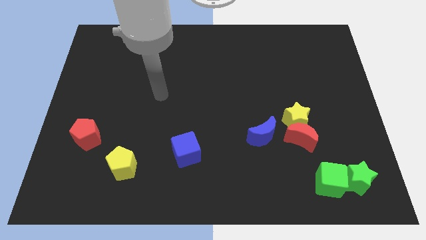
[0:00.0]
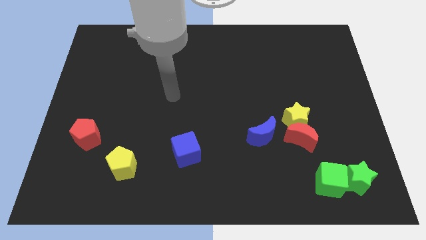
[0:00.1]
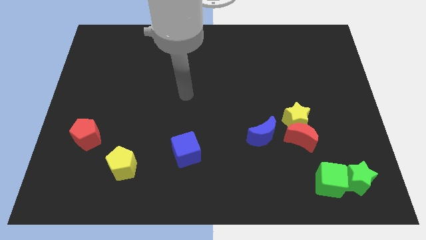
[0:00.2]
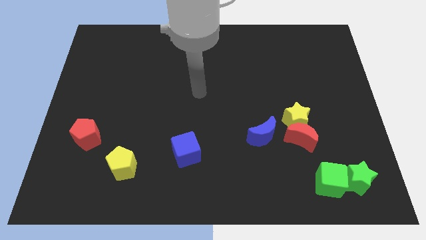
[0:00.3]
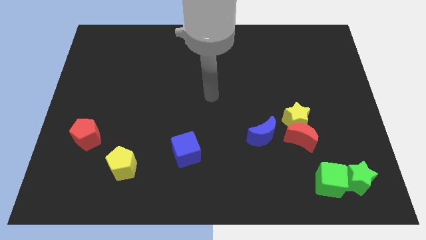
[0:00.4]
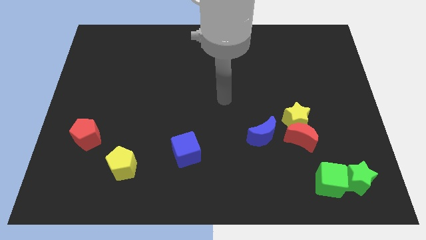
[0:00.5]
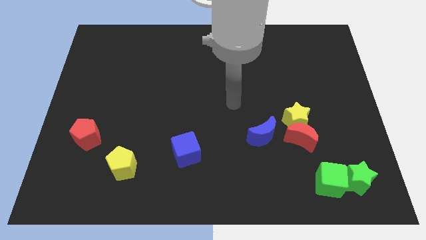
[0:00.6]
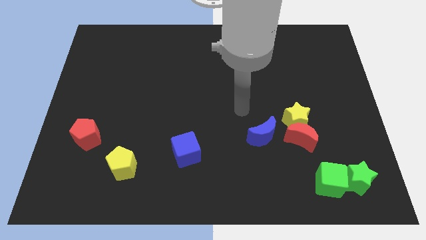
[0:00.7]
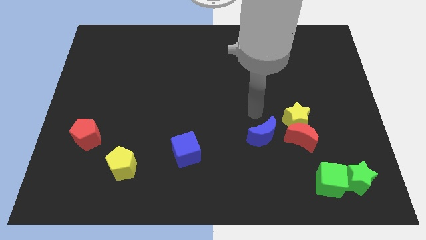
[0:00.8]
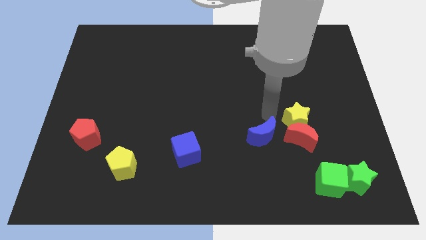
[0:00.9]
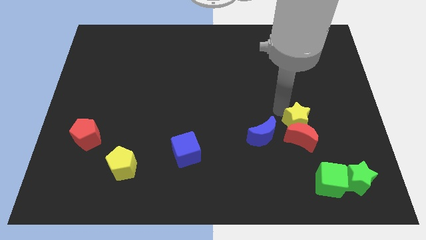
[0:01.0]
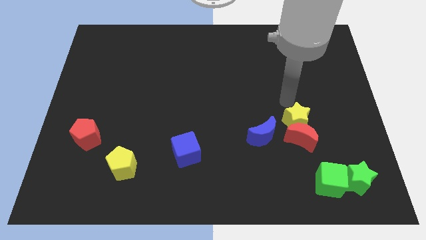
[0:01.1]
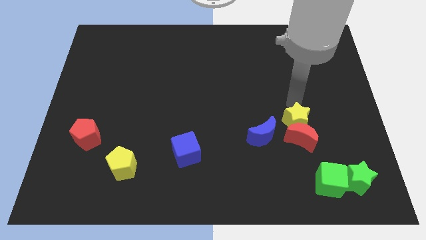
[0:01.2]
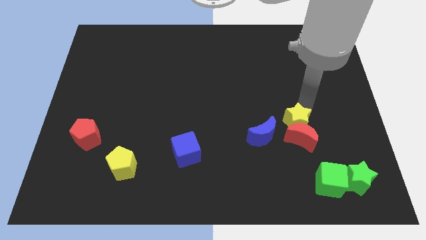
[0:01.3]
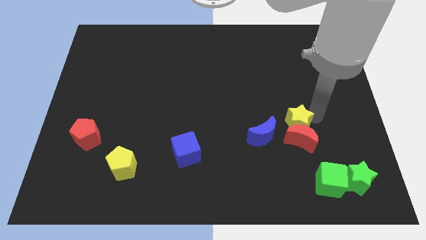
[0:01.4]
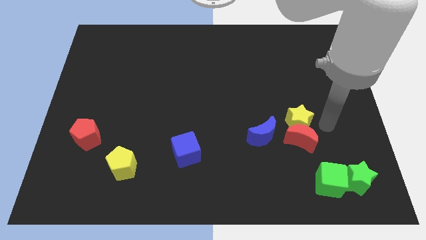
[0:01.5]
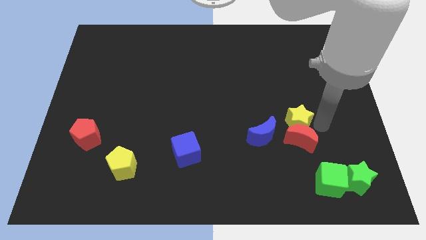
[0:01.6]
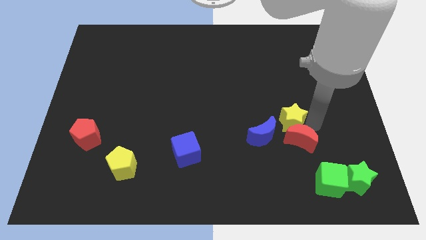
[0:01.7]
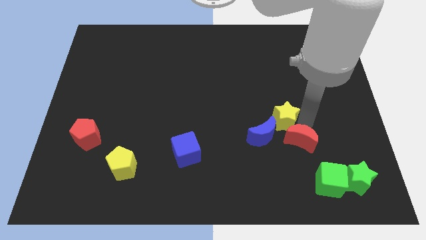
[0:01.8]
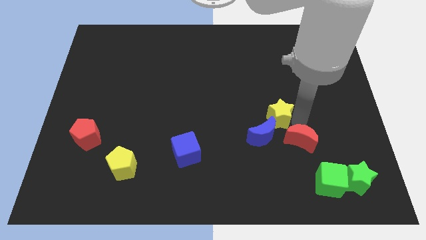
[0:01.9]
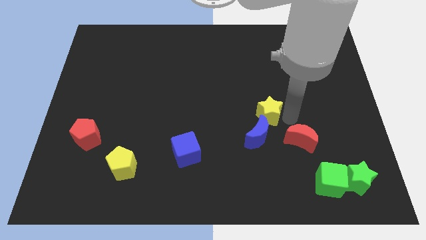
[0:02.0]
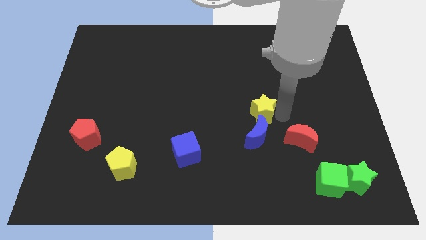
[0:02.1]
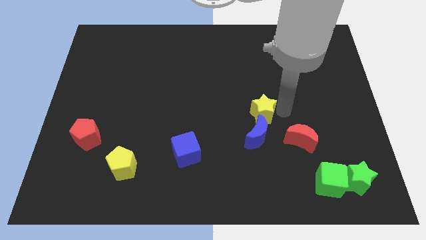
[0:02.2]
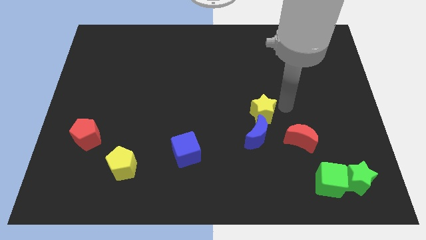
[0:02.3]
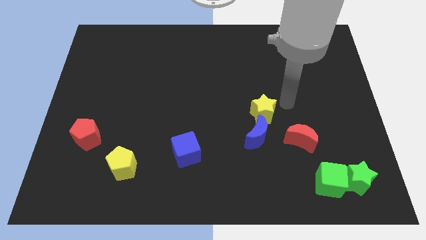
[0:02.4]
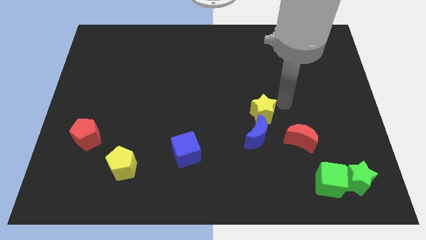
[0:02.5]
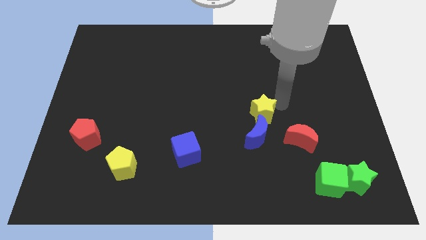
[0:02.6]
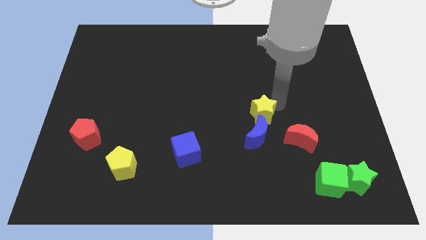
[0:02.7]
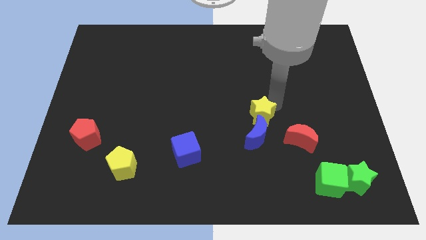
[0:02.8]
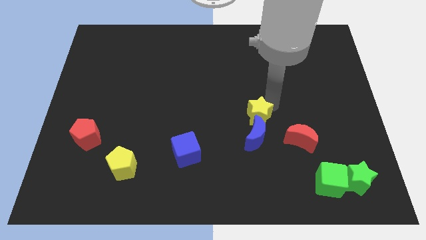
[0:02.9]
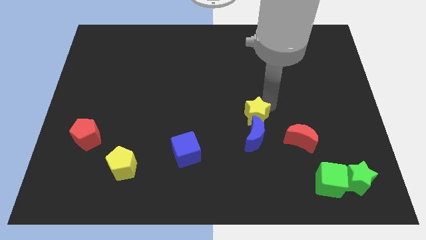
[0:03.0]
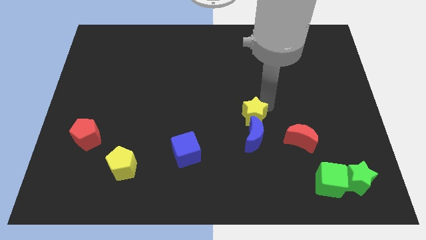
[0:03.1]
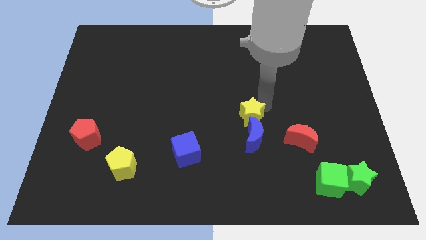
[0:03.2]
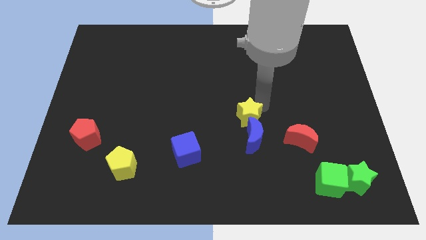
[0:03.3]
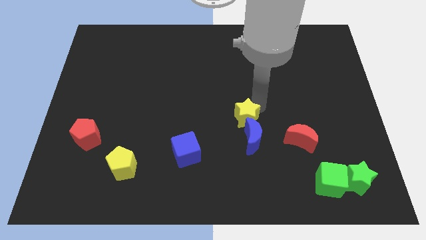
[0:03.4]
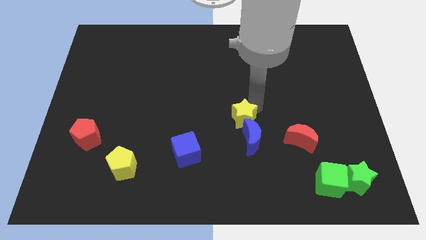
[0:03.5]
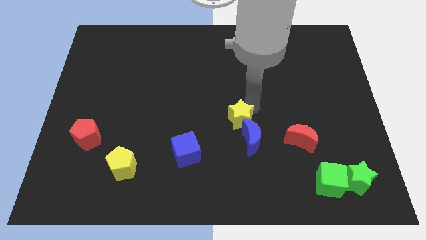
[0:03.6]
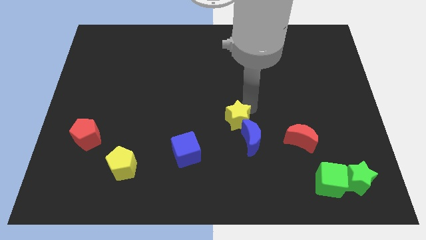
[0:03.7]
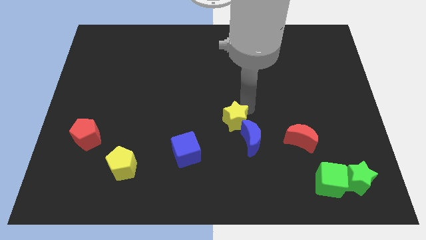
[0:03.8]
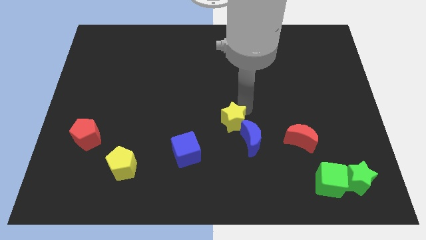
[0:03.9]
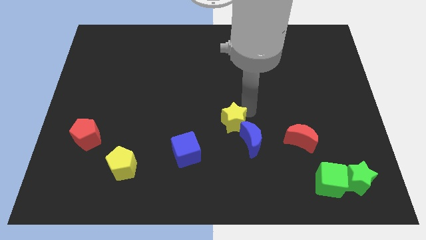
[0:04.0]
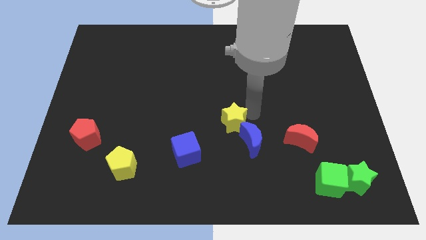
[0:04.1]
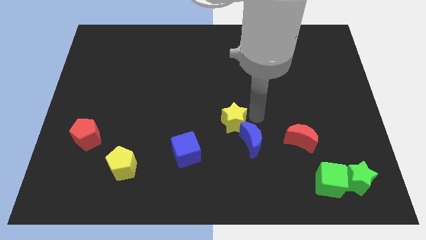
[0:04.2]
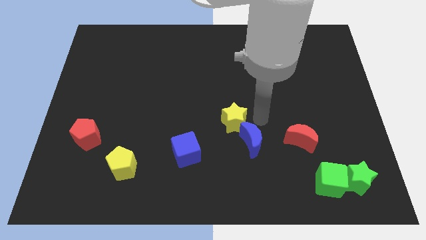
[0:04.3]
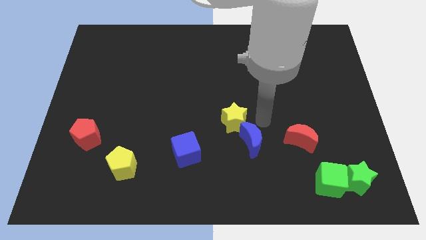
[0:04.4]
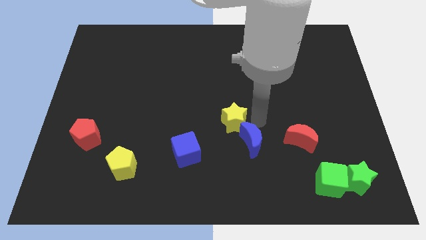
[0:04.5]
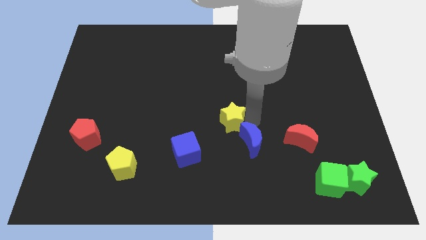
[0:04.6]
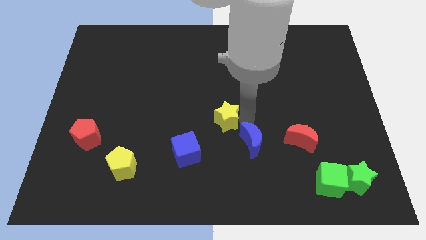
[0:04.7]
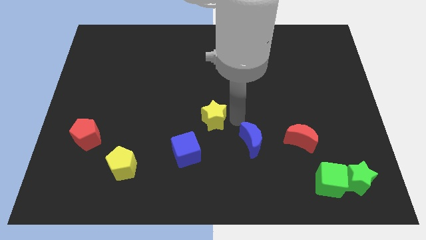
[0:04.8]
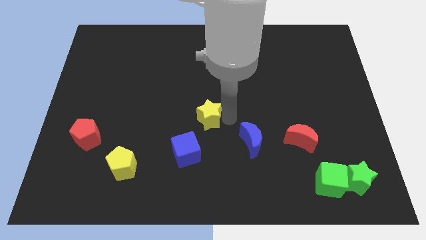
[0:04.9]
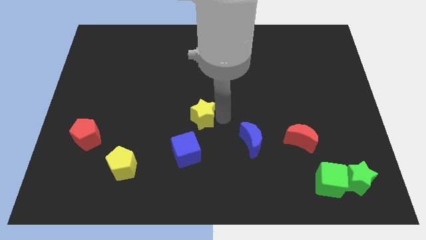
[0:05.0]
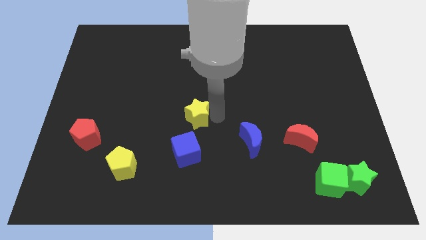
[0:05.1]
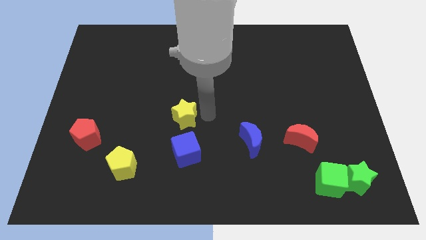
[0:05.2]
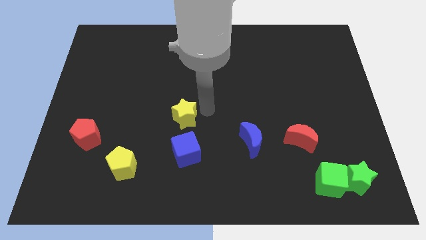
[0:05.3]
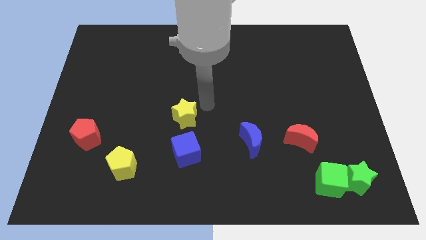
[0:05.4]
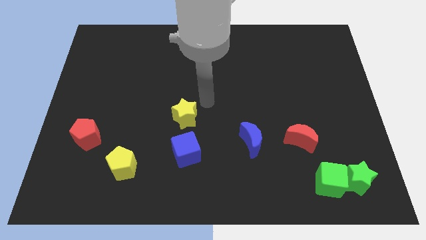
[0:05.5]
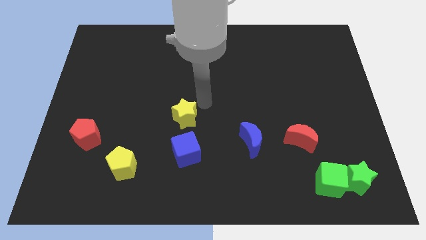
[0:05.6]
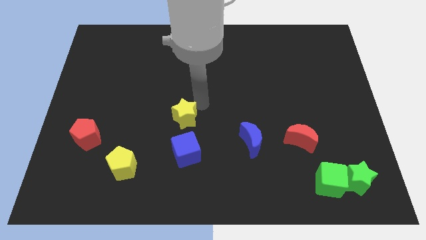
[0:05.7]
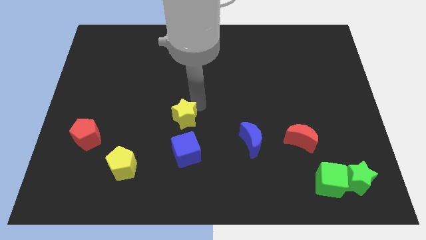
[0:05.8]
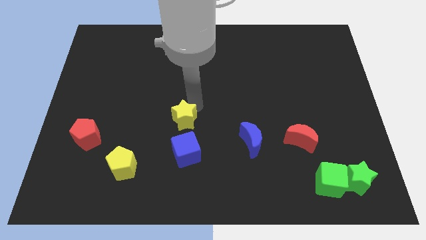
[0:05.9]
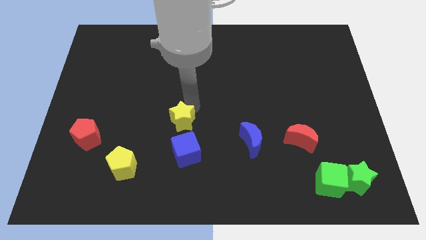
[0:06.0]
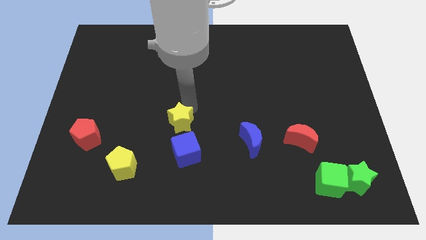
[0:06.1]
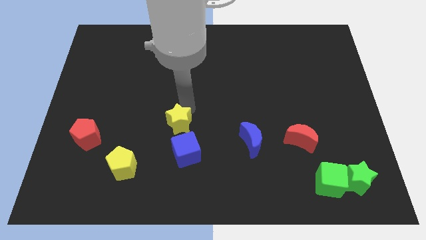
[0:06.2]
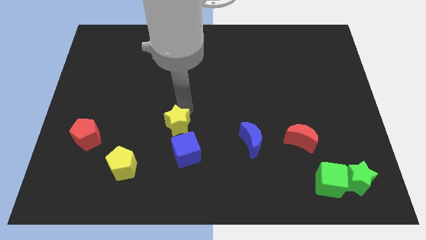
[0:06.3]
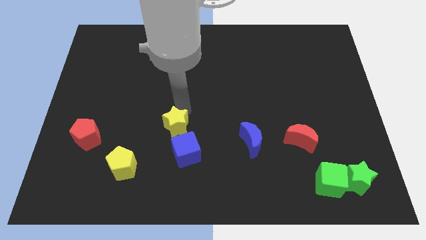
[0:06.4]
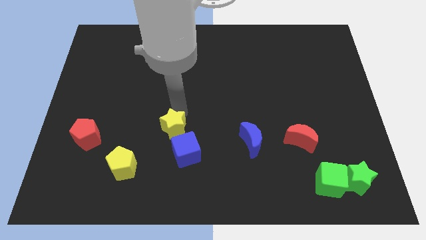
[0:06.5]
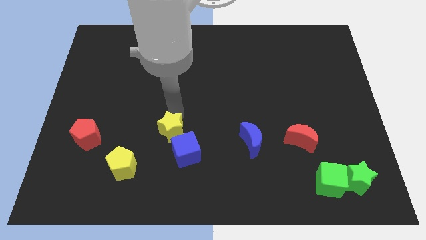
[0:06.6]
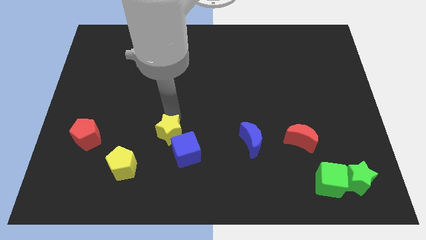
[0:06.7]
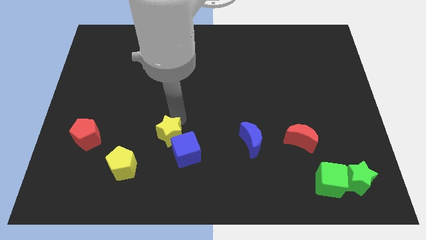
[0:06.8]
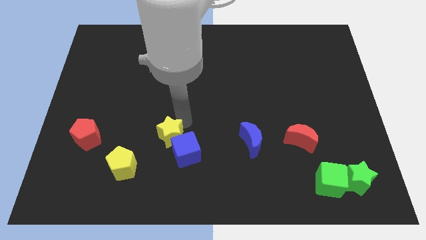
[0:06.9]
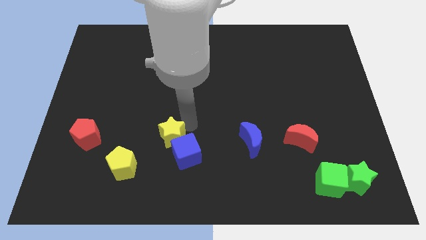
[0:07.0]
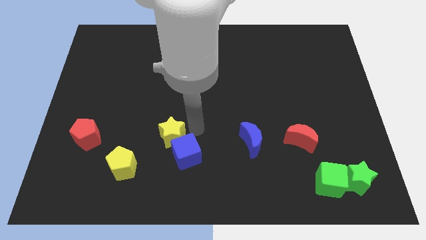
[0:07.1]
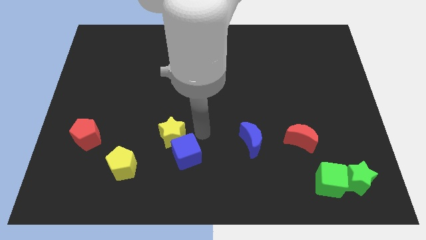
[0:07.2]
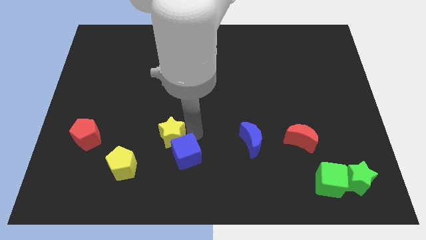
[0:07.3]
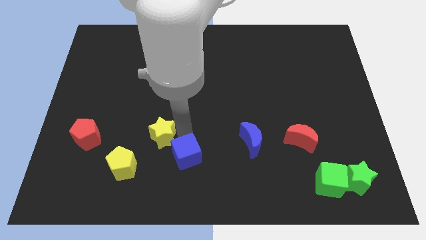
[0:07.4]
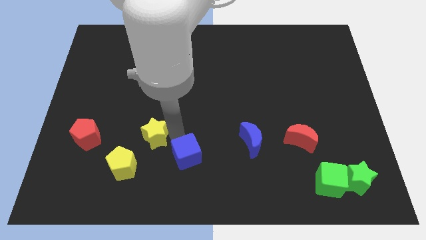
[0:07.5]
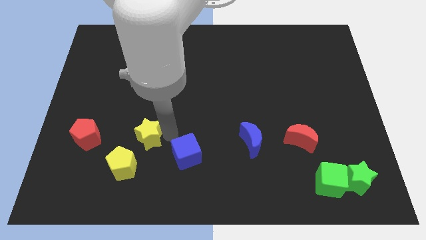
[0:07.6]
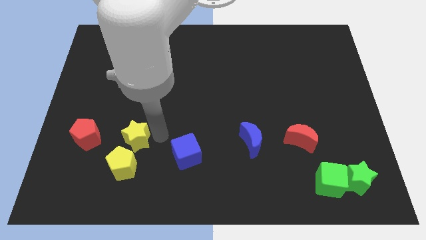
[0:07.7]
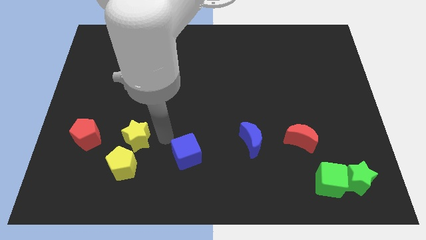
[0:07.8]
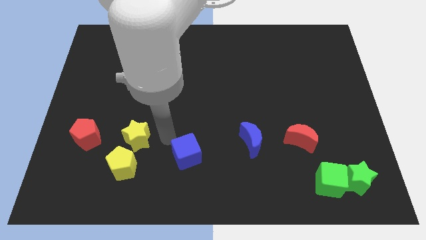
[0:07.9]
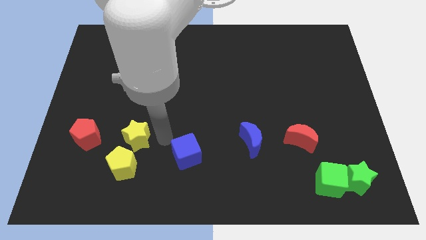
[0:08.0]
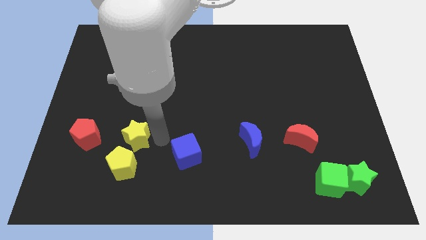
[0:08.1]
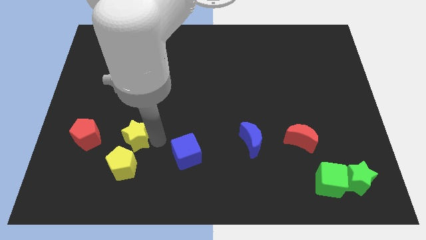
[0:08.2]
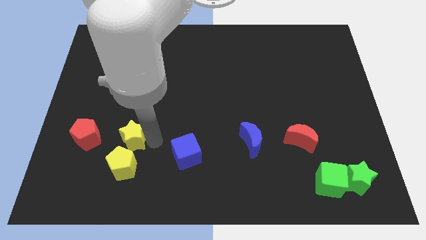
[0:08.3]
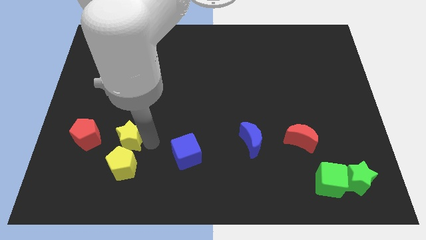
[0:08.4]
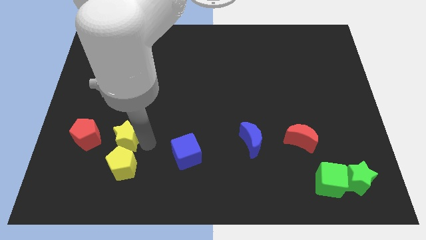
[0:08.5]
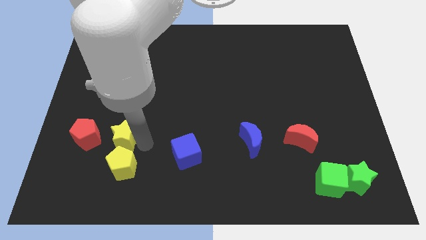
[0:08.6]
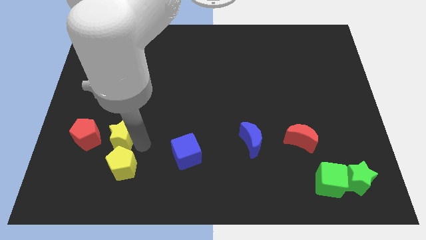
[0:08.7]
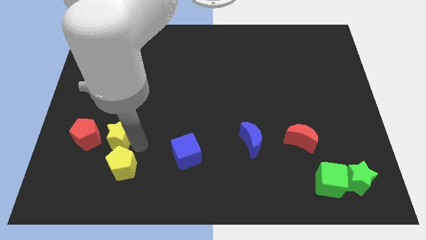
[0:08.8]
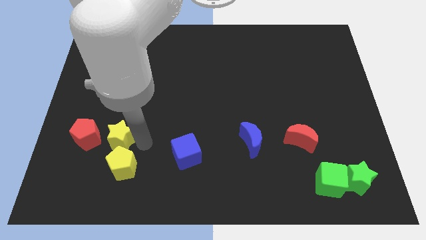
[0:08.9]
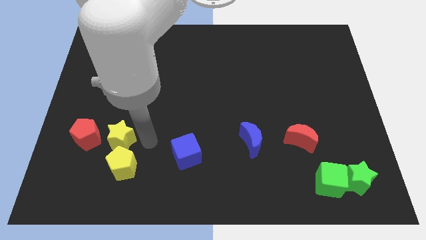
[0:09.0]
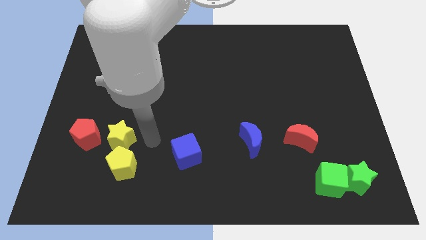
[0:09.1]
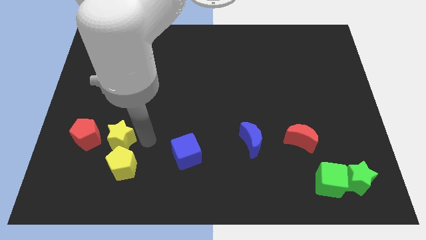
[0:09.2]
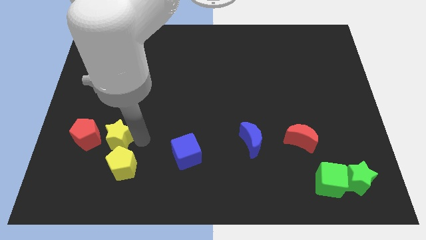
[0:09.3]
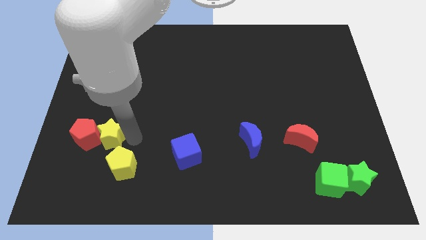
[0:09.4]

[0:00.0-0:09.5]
move the yellow star next to the red pentagon
